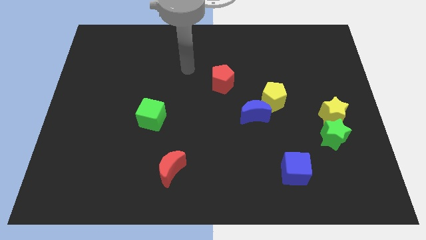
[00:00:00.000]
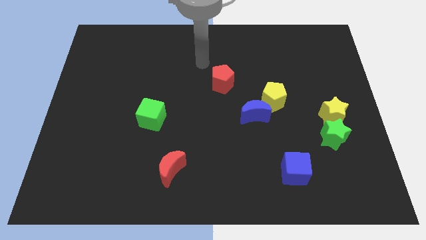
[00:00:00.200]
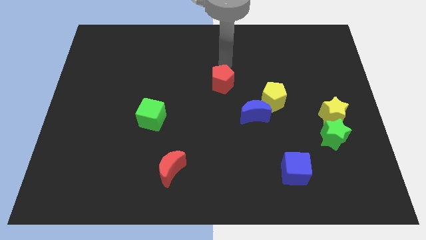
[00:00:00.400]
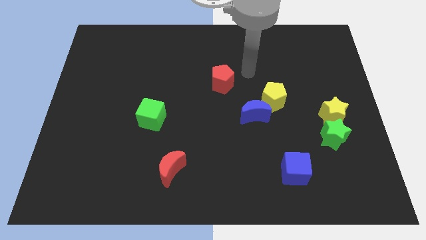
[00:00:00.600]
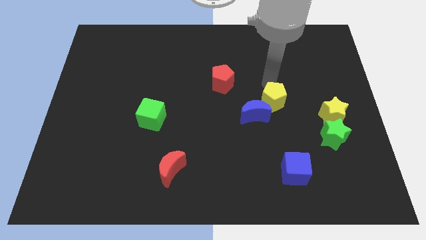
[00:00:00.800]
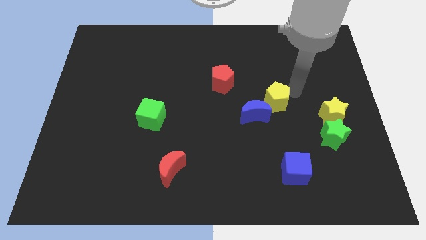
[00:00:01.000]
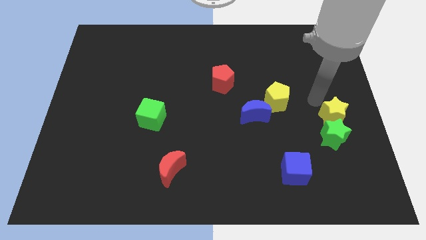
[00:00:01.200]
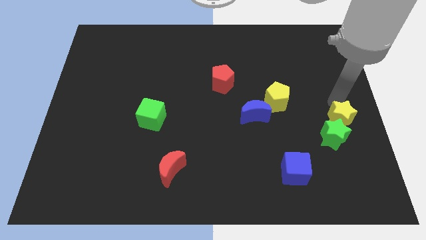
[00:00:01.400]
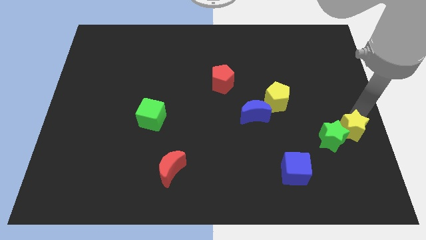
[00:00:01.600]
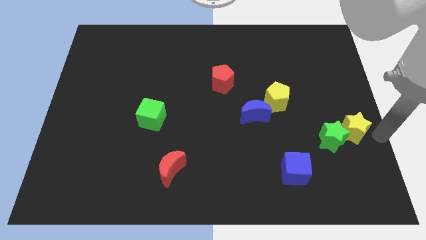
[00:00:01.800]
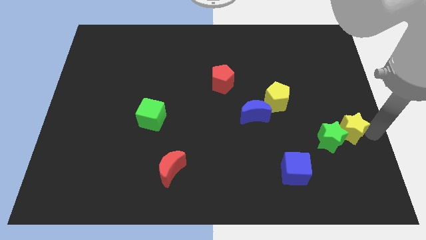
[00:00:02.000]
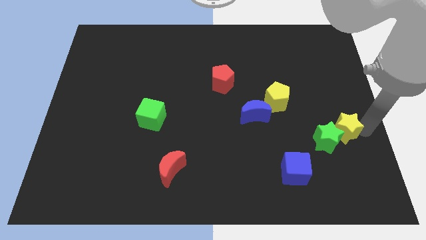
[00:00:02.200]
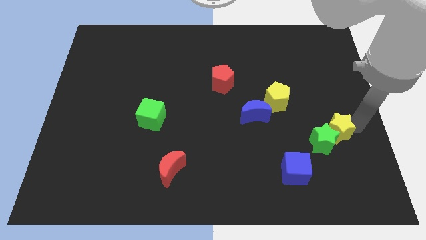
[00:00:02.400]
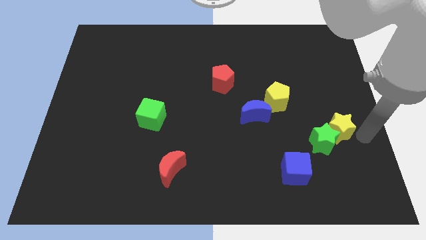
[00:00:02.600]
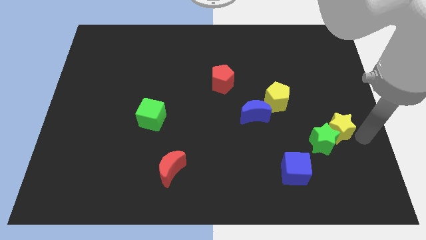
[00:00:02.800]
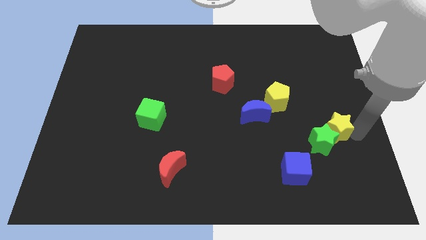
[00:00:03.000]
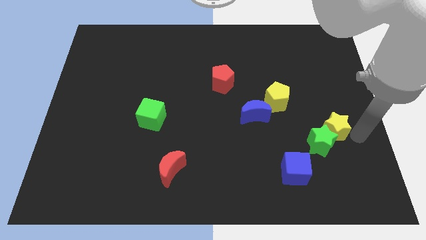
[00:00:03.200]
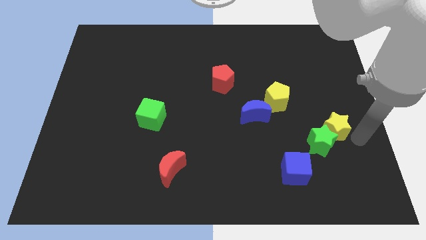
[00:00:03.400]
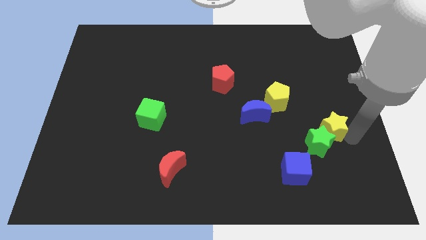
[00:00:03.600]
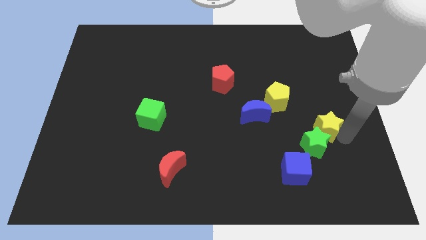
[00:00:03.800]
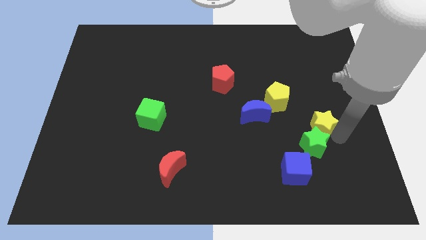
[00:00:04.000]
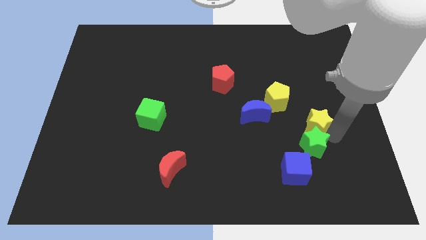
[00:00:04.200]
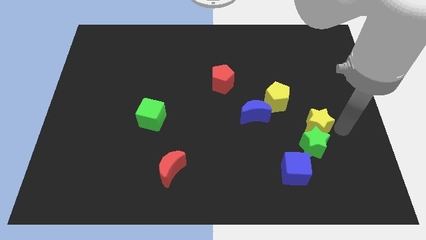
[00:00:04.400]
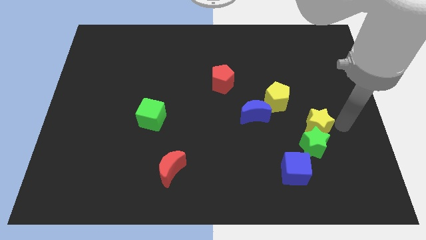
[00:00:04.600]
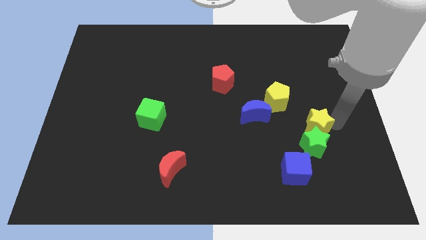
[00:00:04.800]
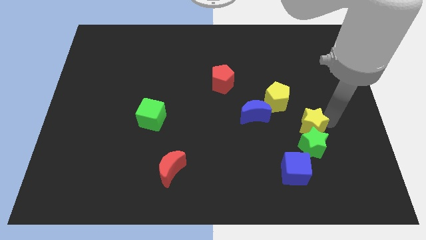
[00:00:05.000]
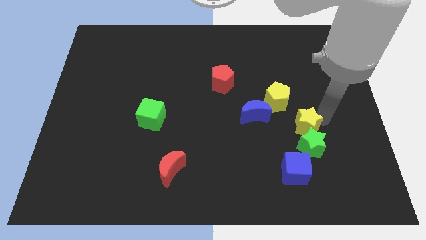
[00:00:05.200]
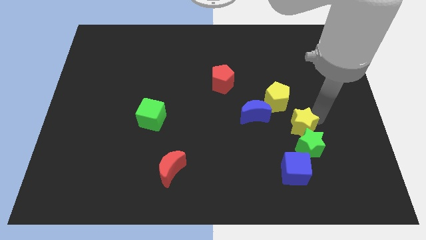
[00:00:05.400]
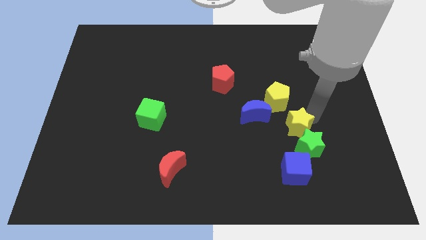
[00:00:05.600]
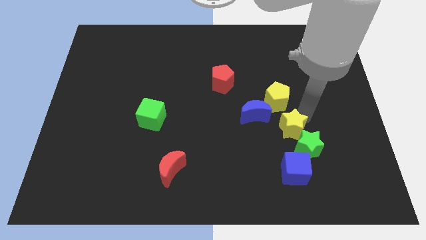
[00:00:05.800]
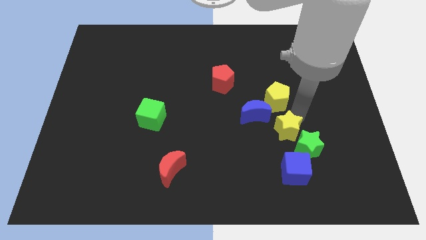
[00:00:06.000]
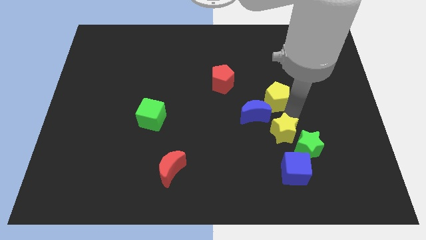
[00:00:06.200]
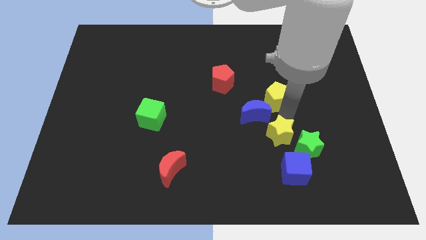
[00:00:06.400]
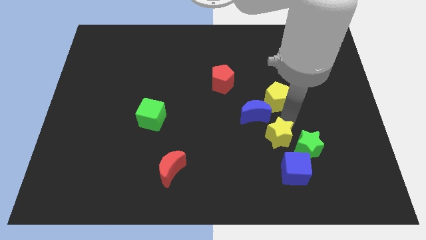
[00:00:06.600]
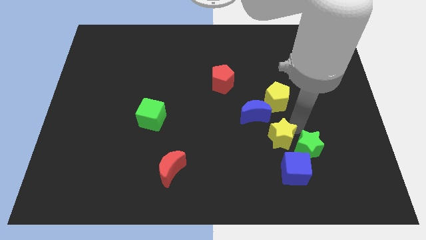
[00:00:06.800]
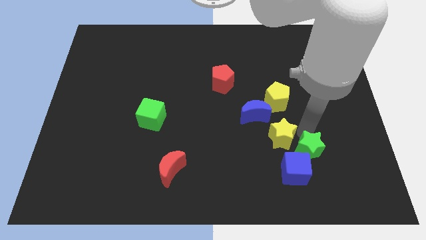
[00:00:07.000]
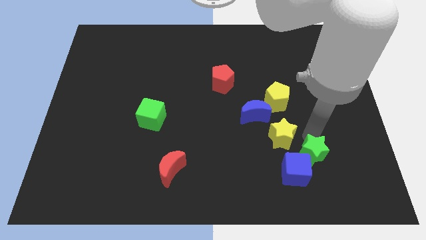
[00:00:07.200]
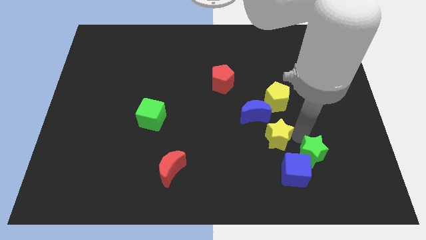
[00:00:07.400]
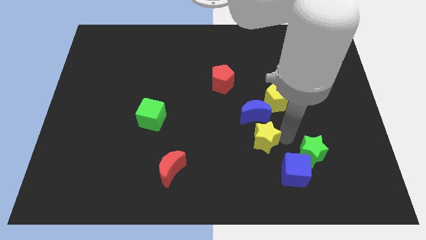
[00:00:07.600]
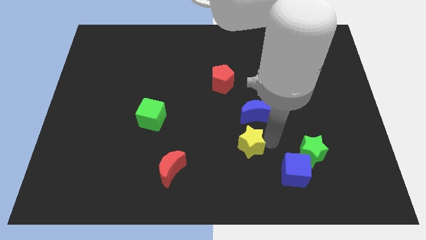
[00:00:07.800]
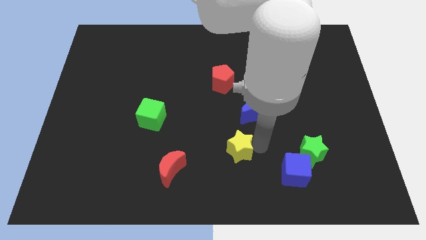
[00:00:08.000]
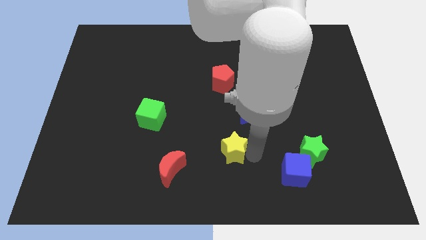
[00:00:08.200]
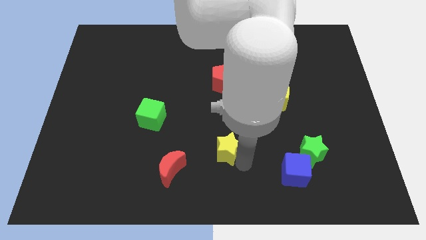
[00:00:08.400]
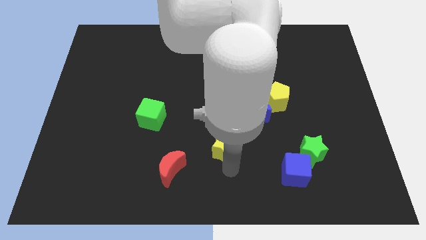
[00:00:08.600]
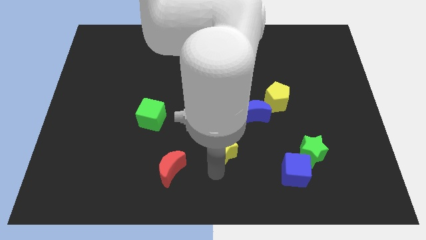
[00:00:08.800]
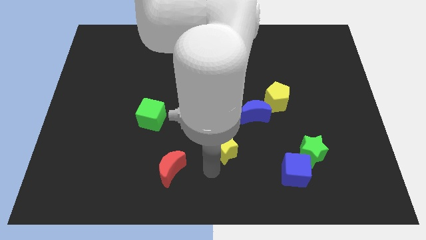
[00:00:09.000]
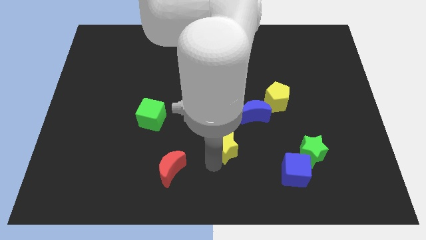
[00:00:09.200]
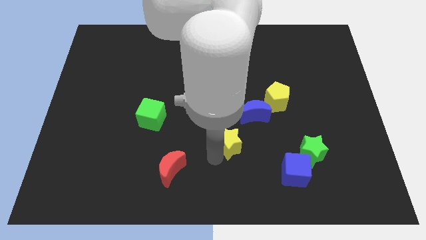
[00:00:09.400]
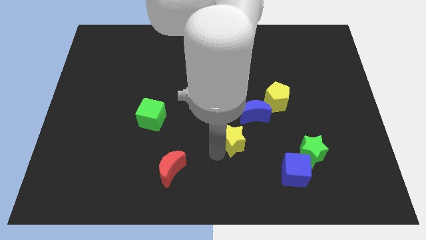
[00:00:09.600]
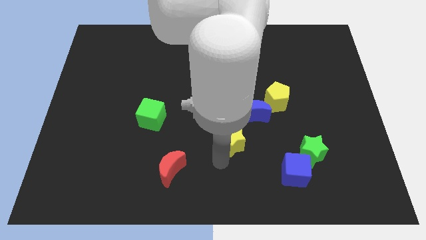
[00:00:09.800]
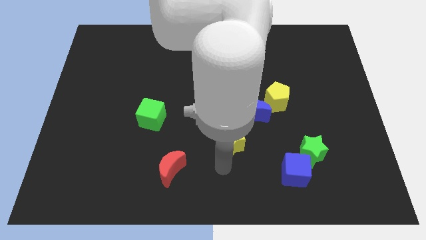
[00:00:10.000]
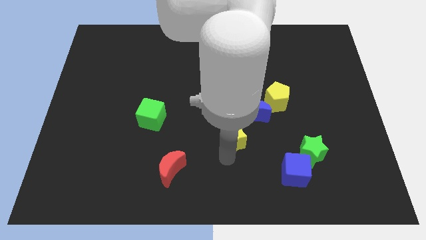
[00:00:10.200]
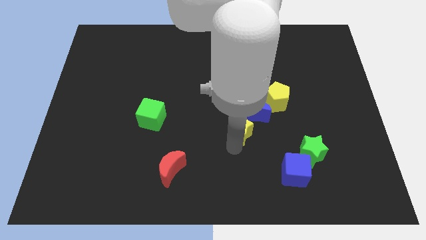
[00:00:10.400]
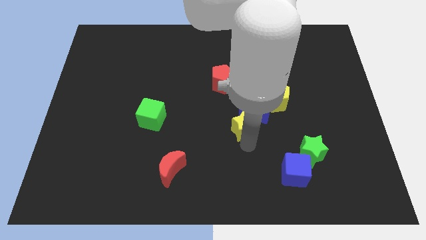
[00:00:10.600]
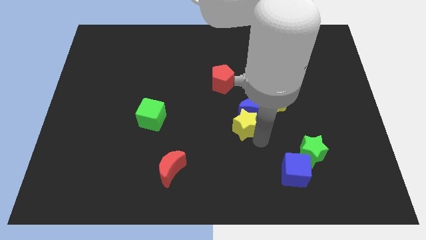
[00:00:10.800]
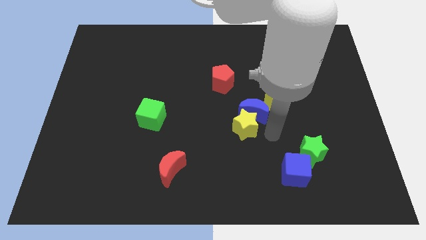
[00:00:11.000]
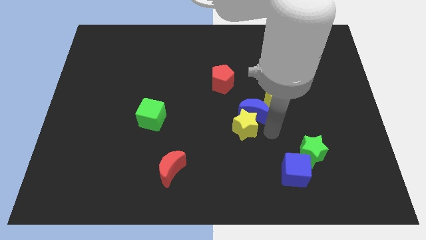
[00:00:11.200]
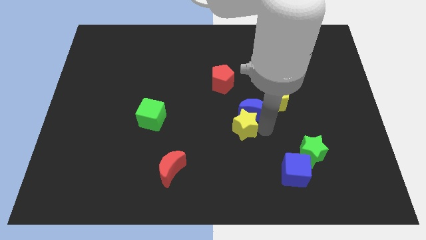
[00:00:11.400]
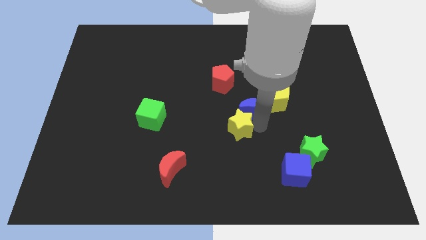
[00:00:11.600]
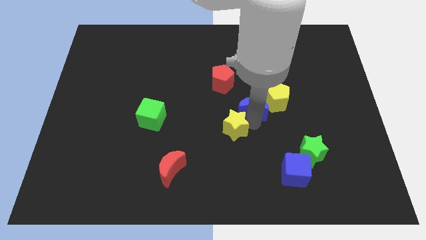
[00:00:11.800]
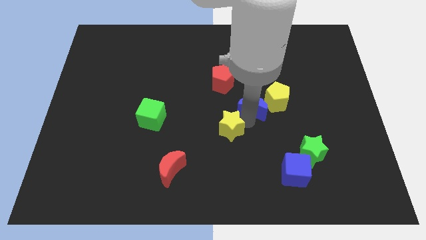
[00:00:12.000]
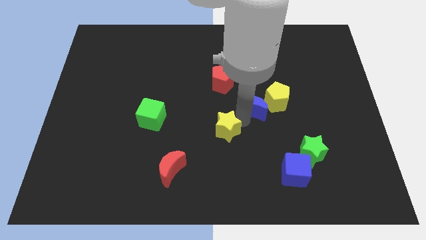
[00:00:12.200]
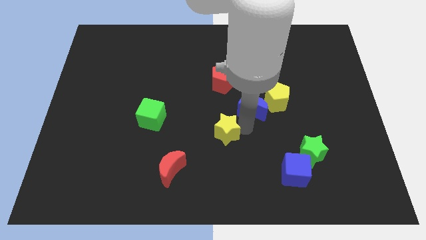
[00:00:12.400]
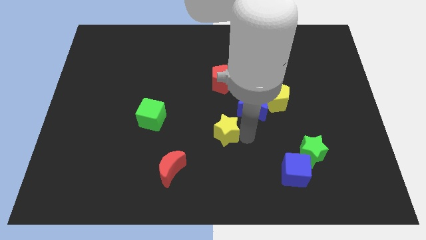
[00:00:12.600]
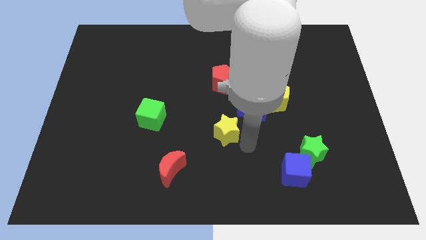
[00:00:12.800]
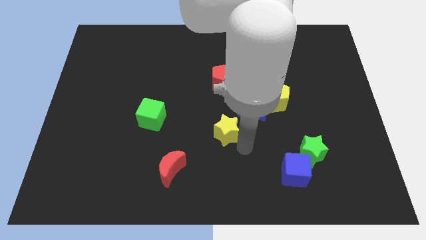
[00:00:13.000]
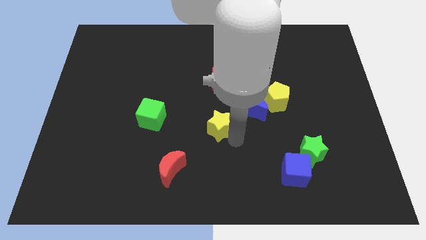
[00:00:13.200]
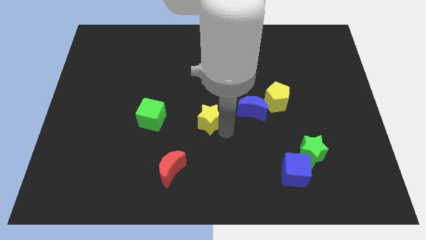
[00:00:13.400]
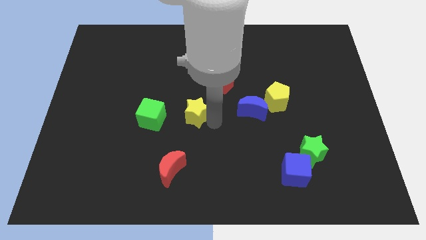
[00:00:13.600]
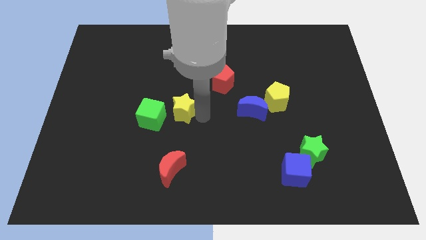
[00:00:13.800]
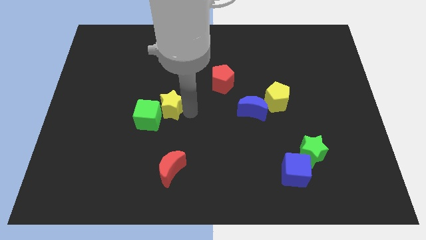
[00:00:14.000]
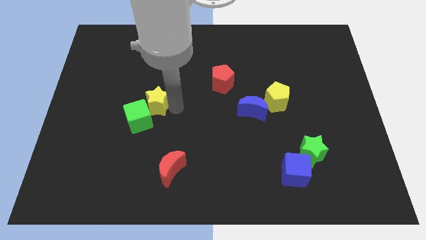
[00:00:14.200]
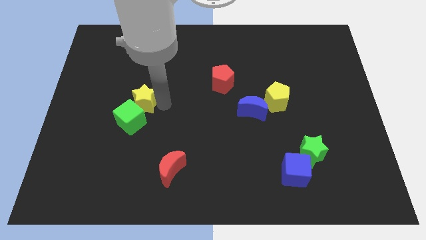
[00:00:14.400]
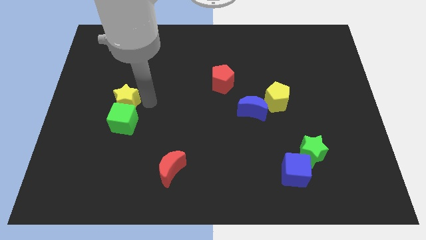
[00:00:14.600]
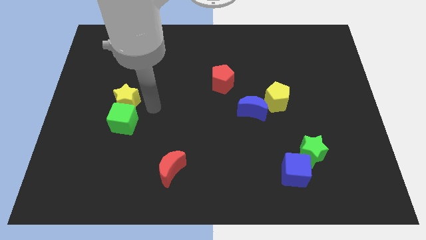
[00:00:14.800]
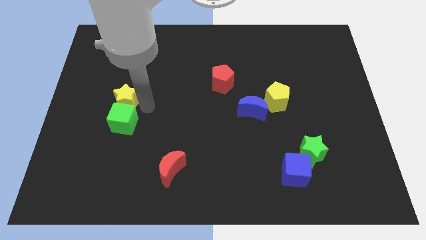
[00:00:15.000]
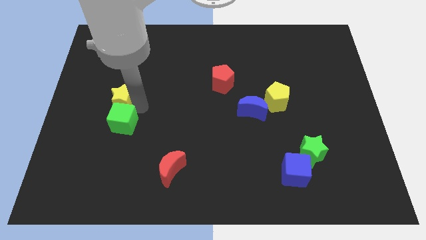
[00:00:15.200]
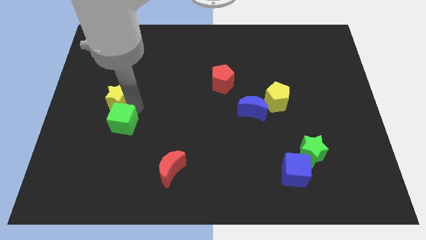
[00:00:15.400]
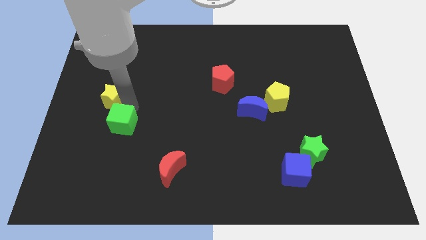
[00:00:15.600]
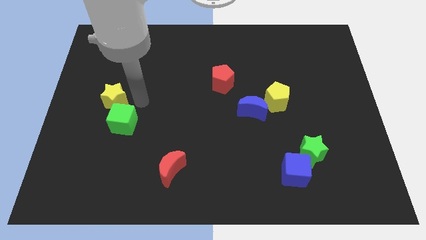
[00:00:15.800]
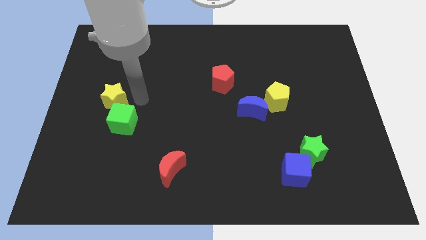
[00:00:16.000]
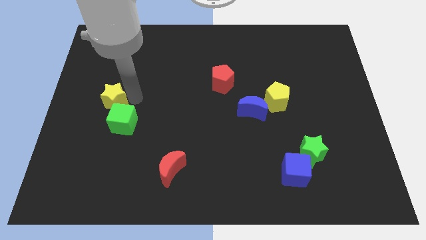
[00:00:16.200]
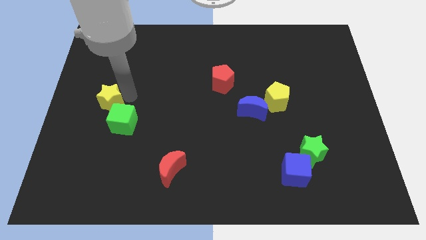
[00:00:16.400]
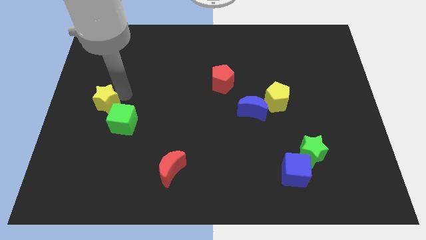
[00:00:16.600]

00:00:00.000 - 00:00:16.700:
put the yellow star to the center left
